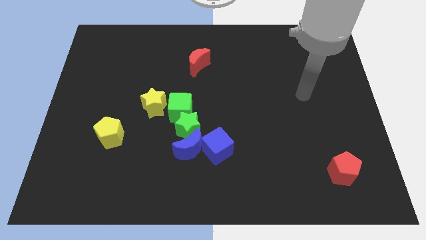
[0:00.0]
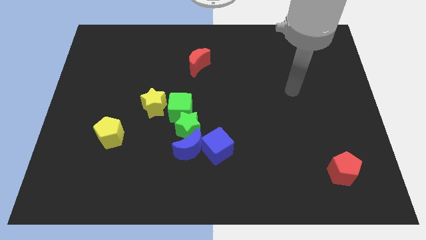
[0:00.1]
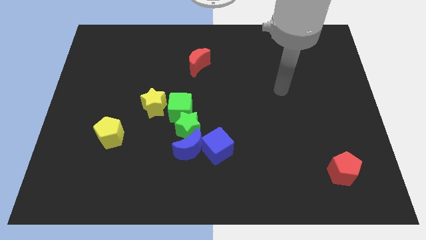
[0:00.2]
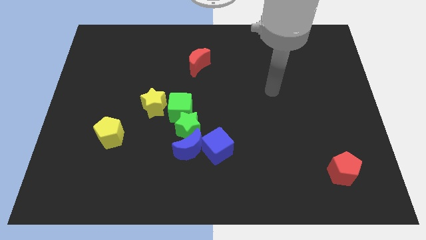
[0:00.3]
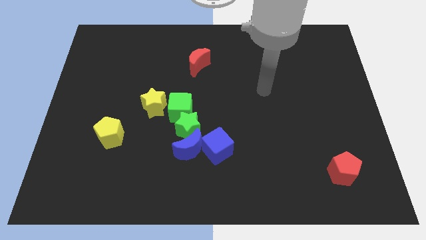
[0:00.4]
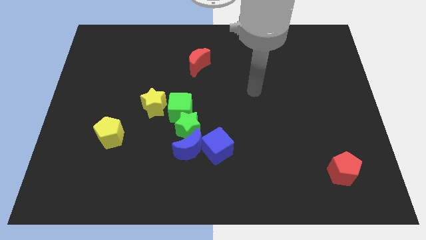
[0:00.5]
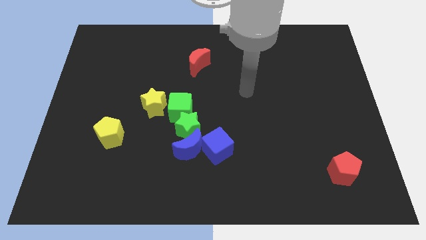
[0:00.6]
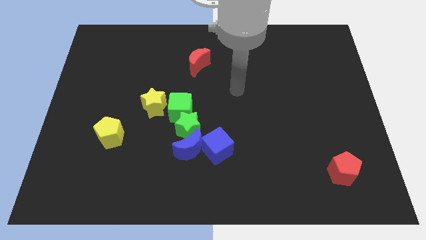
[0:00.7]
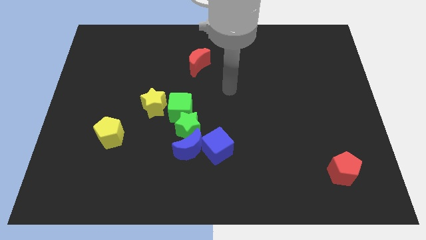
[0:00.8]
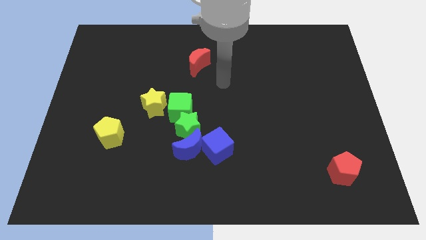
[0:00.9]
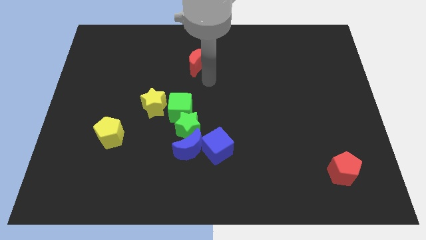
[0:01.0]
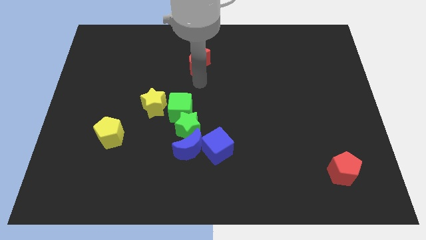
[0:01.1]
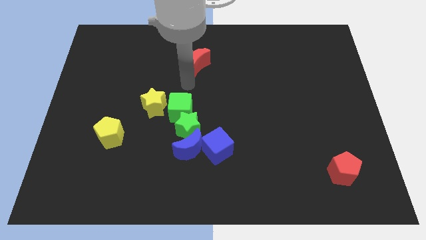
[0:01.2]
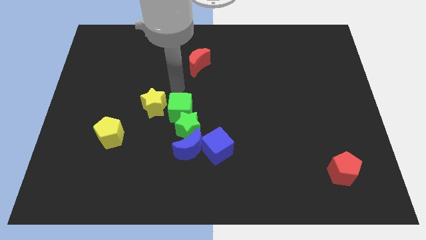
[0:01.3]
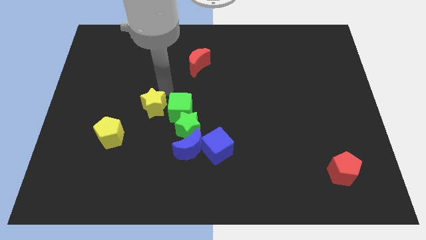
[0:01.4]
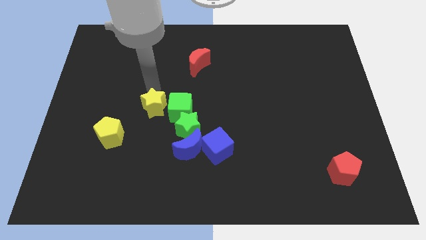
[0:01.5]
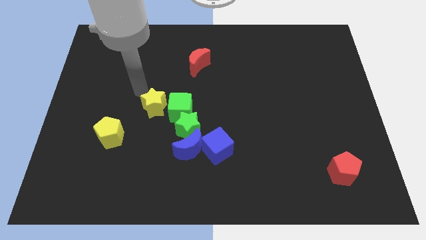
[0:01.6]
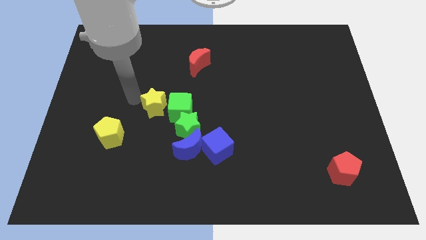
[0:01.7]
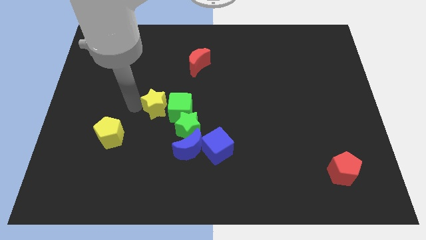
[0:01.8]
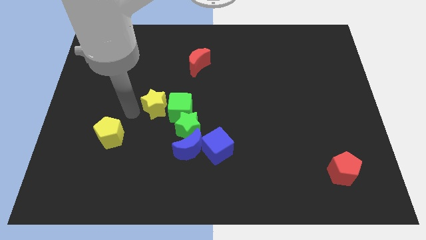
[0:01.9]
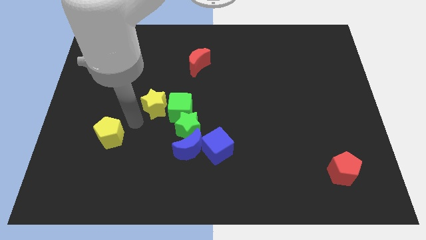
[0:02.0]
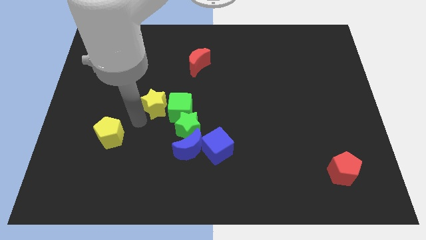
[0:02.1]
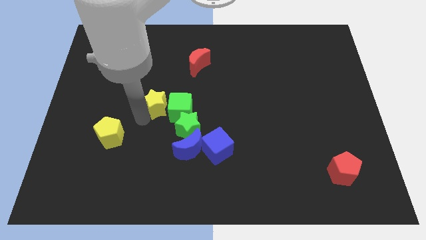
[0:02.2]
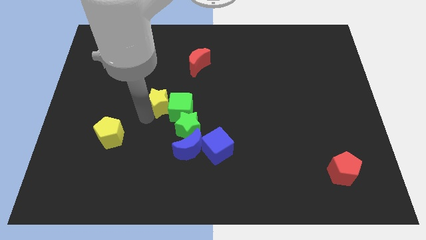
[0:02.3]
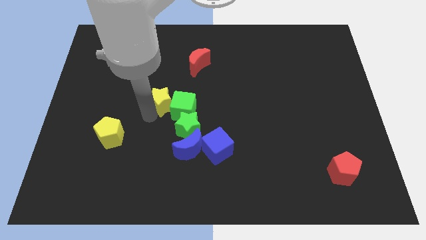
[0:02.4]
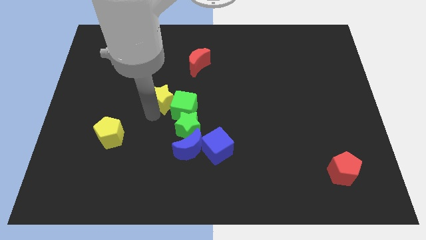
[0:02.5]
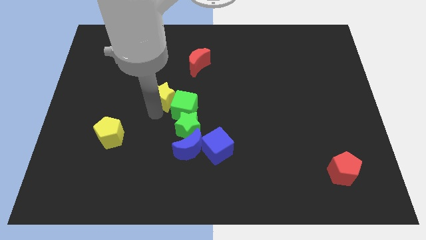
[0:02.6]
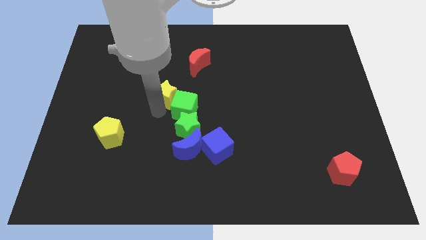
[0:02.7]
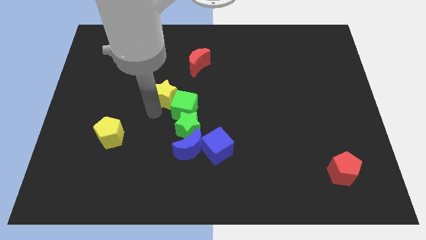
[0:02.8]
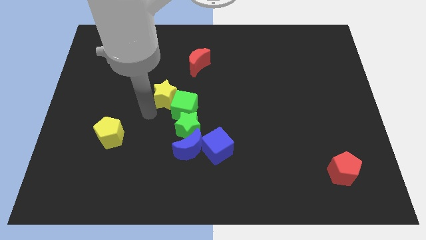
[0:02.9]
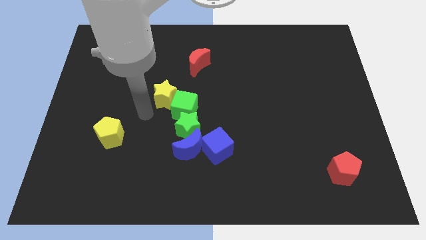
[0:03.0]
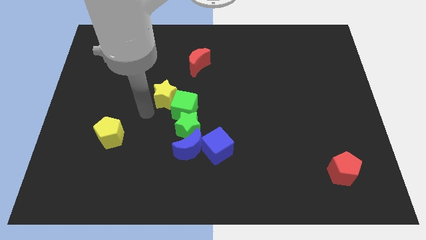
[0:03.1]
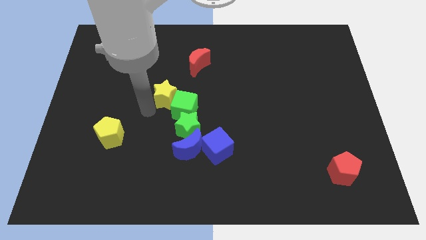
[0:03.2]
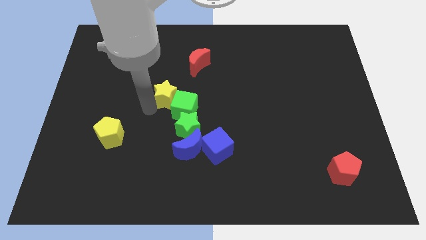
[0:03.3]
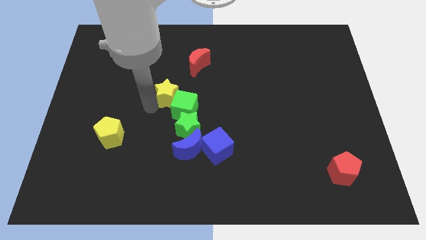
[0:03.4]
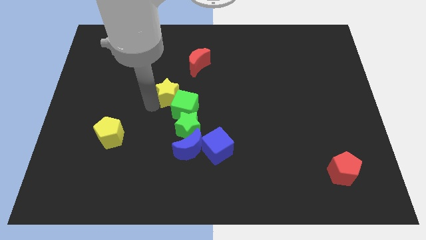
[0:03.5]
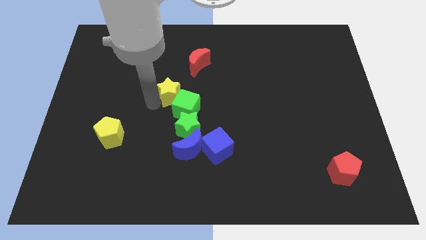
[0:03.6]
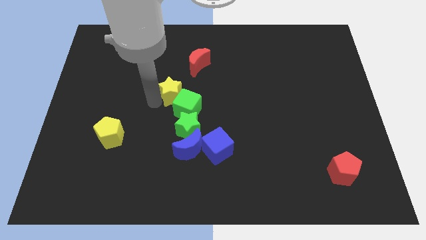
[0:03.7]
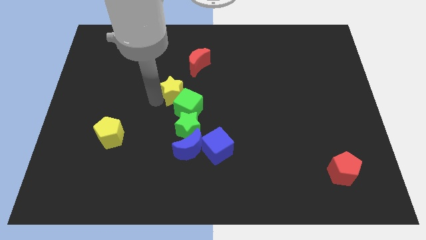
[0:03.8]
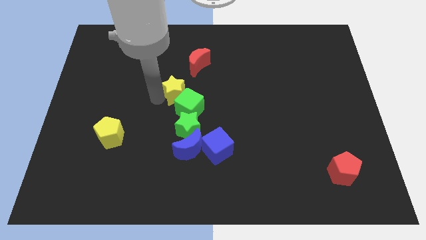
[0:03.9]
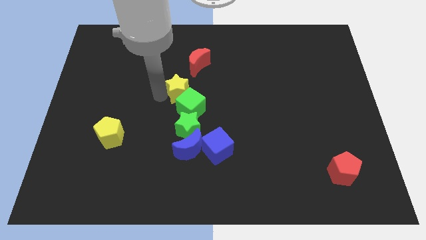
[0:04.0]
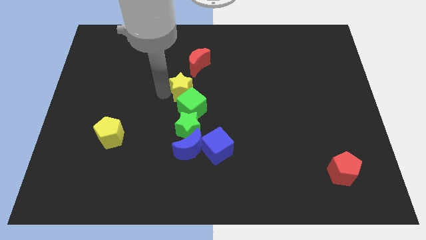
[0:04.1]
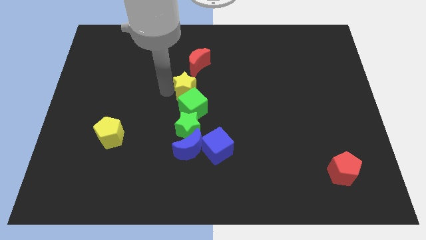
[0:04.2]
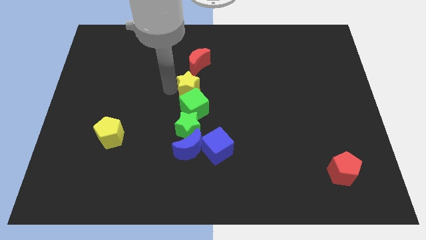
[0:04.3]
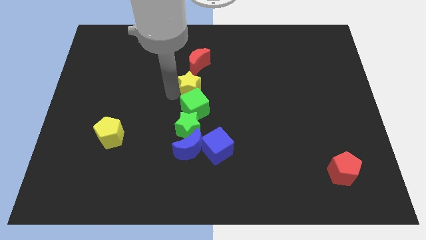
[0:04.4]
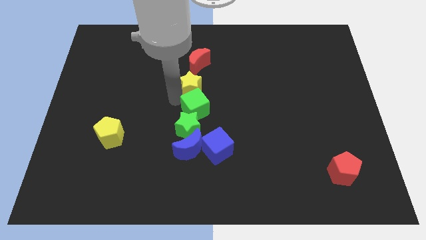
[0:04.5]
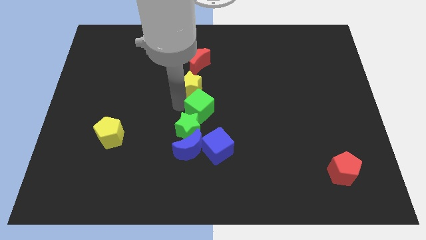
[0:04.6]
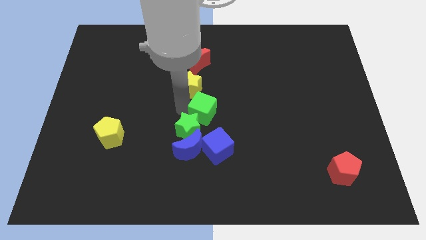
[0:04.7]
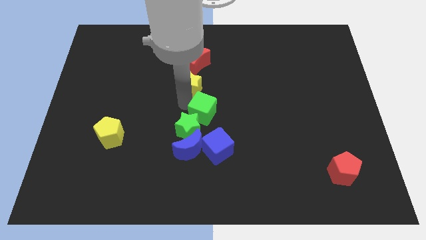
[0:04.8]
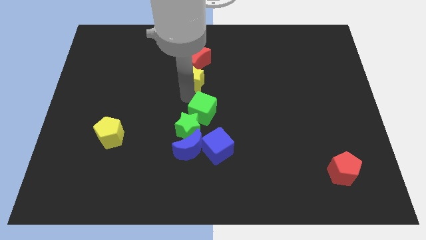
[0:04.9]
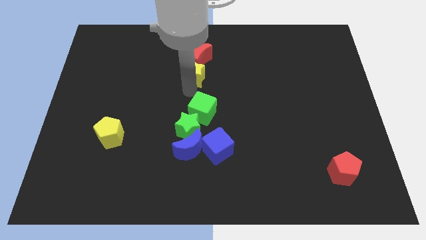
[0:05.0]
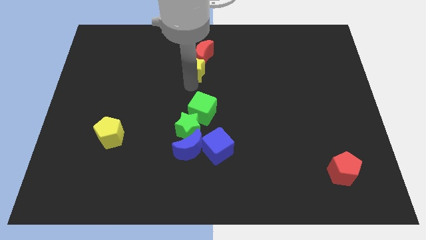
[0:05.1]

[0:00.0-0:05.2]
put the yellow star to the red moon

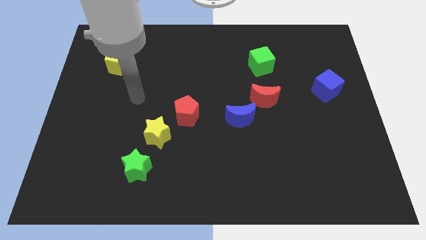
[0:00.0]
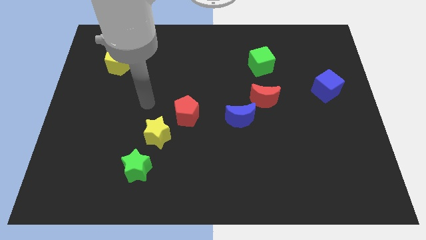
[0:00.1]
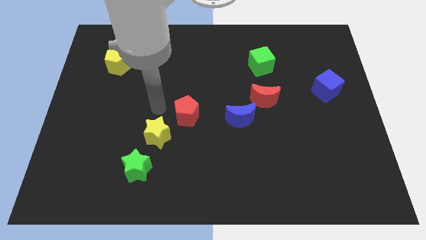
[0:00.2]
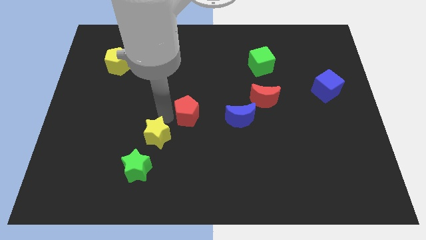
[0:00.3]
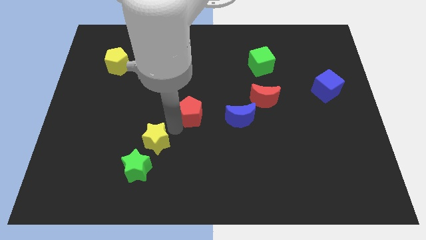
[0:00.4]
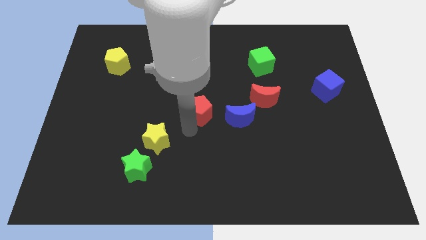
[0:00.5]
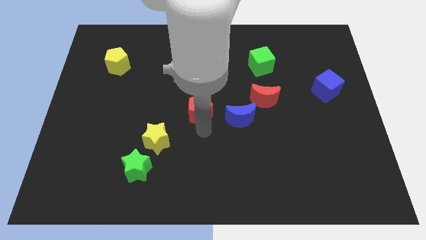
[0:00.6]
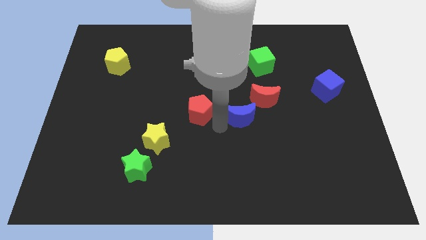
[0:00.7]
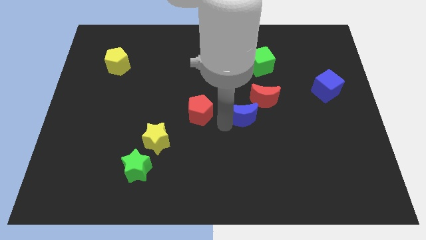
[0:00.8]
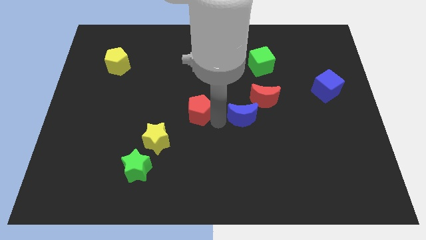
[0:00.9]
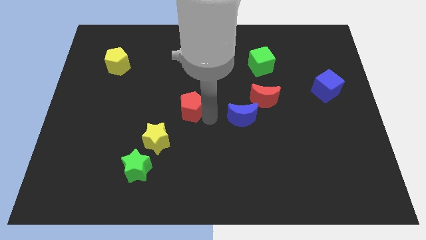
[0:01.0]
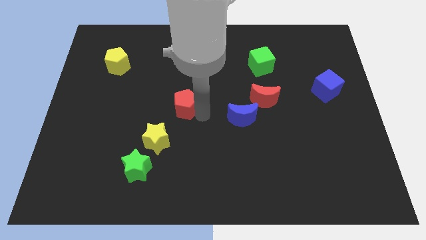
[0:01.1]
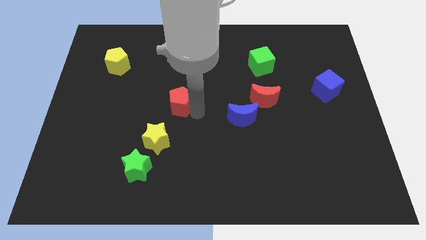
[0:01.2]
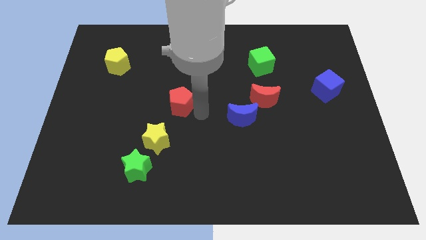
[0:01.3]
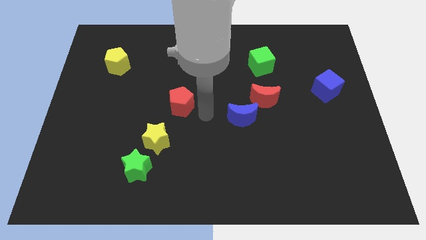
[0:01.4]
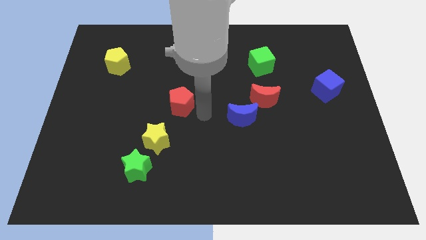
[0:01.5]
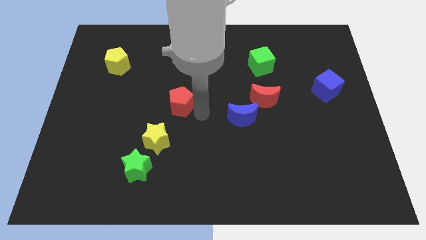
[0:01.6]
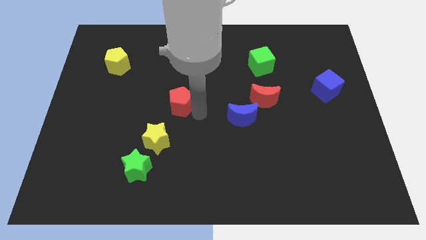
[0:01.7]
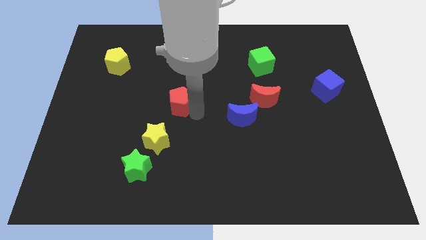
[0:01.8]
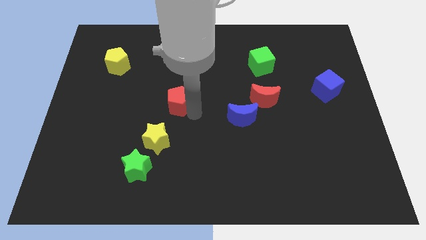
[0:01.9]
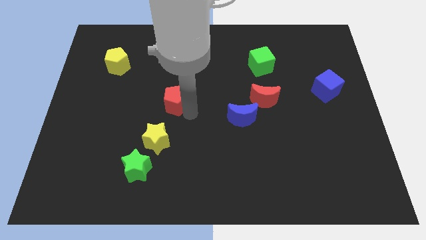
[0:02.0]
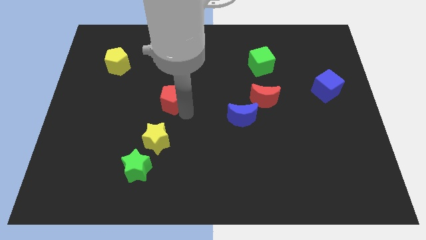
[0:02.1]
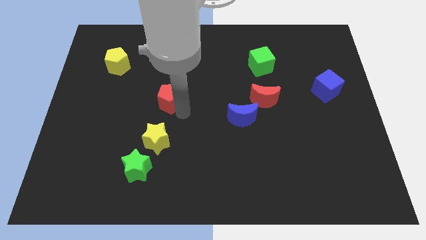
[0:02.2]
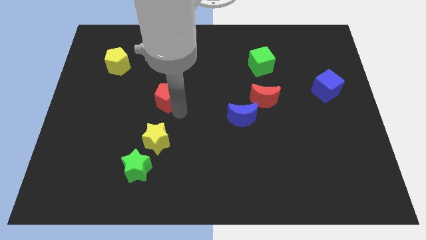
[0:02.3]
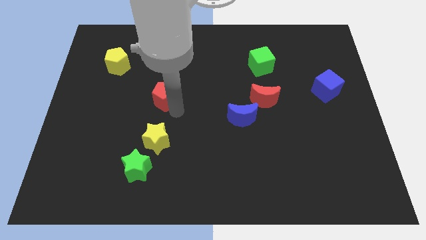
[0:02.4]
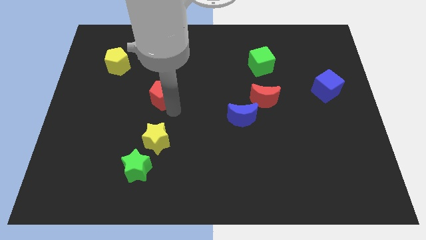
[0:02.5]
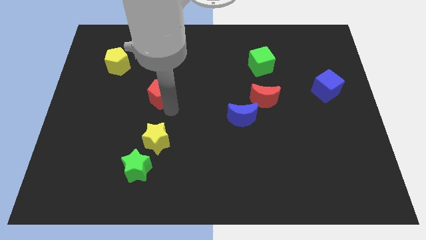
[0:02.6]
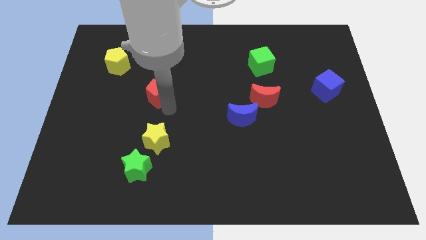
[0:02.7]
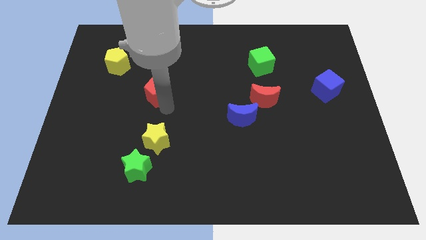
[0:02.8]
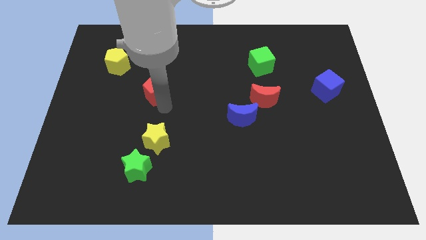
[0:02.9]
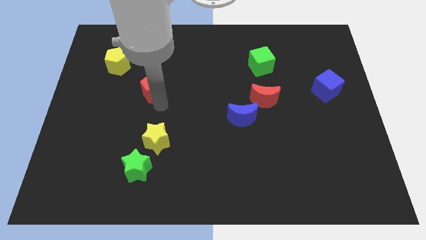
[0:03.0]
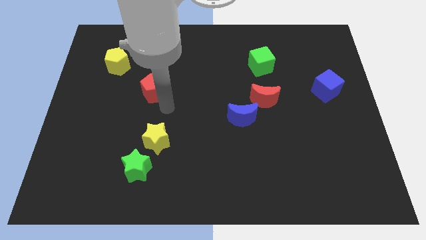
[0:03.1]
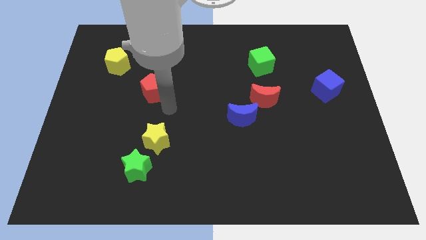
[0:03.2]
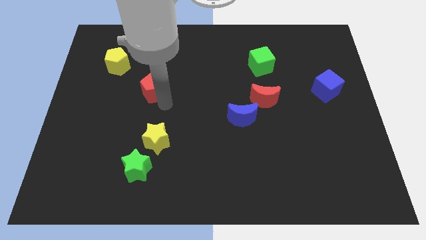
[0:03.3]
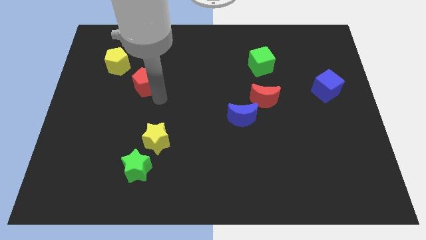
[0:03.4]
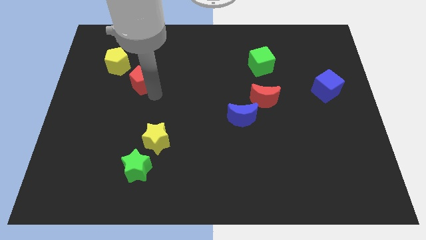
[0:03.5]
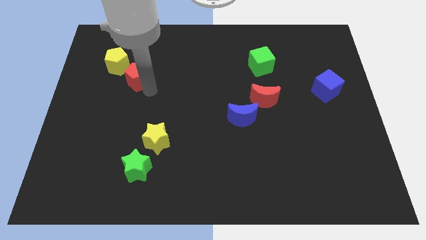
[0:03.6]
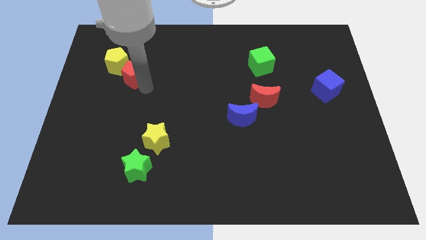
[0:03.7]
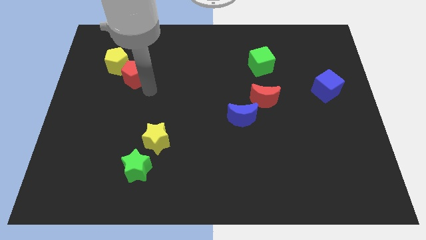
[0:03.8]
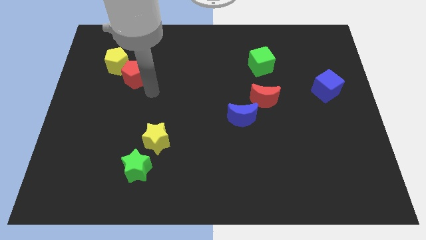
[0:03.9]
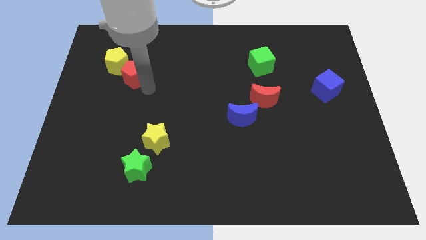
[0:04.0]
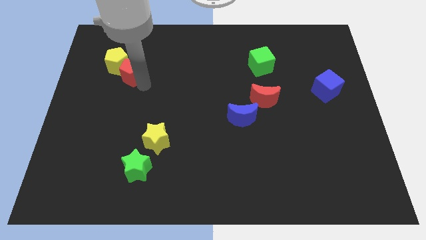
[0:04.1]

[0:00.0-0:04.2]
push the red pentagon close to the yellow pentagon
